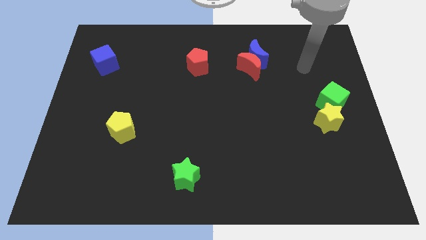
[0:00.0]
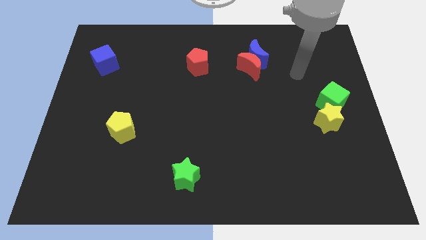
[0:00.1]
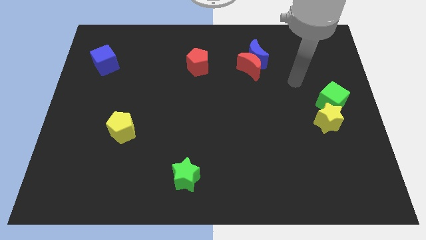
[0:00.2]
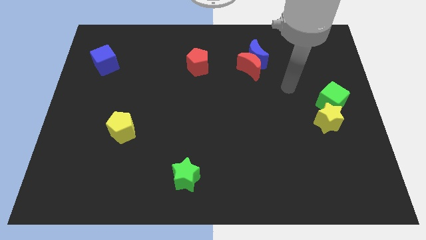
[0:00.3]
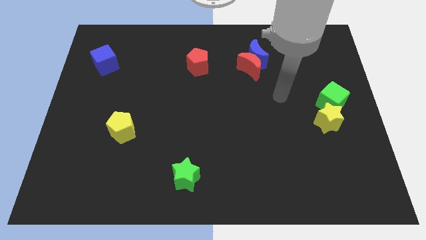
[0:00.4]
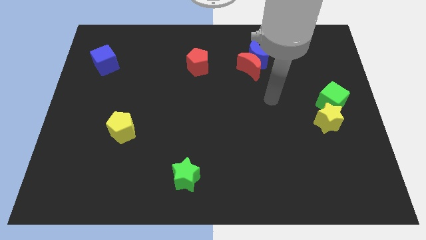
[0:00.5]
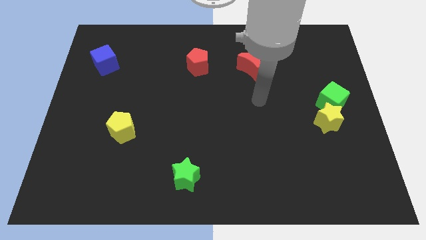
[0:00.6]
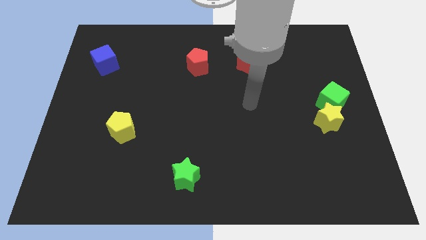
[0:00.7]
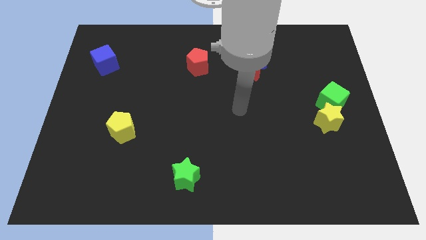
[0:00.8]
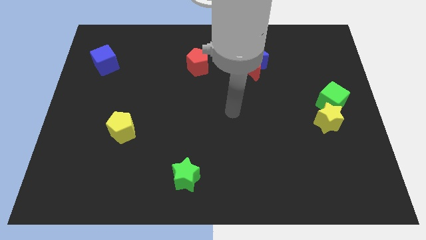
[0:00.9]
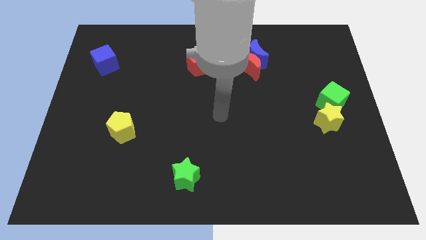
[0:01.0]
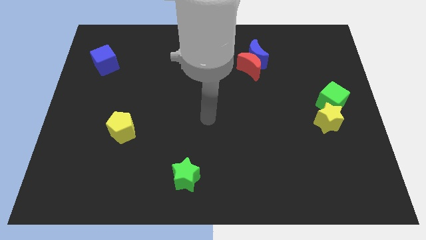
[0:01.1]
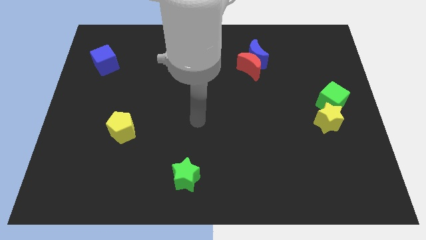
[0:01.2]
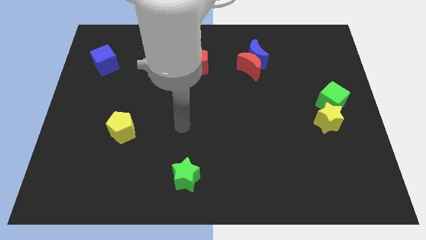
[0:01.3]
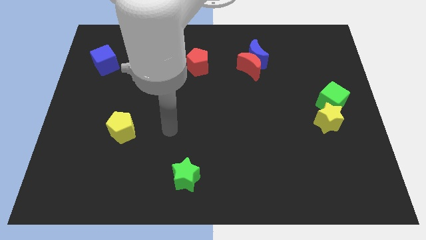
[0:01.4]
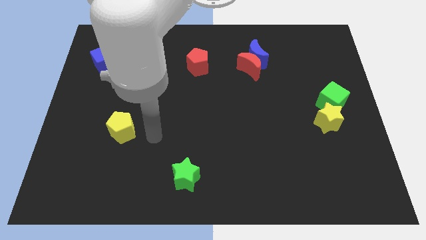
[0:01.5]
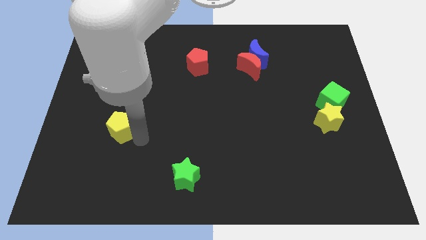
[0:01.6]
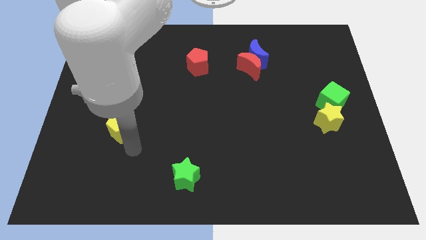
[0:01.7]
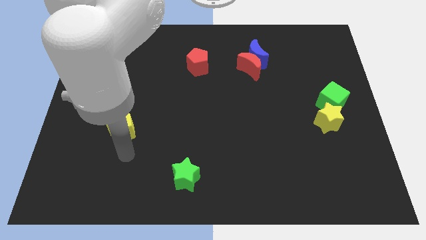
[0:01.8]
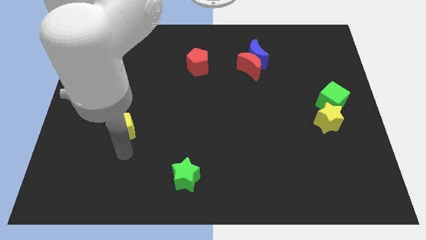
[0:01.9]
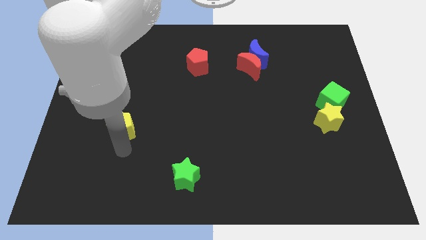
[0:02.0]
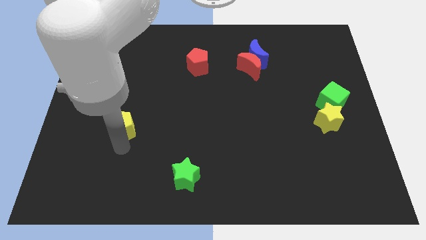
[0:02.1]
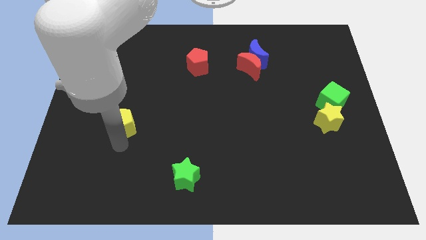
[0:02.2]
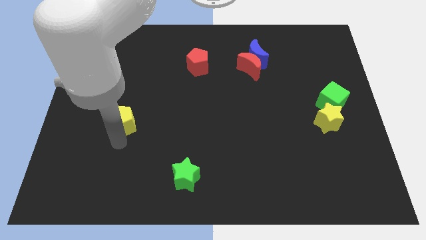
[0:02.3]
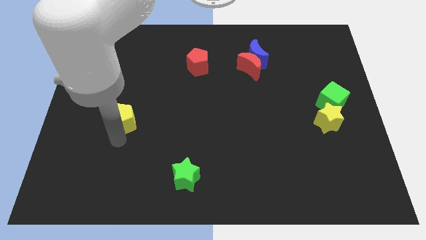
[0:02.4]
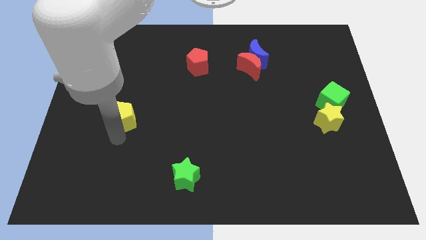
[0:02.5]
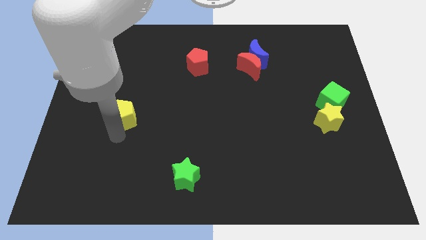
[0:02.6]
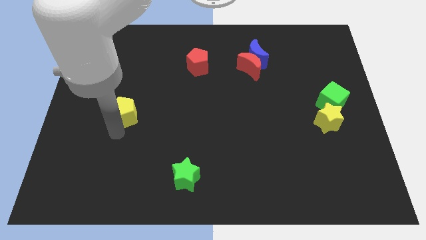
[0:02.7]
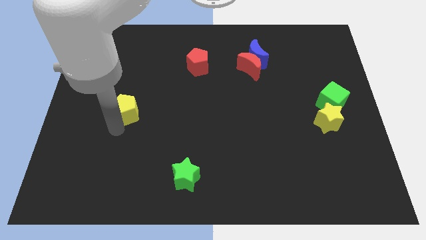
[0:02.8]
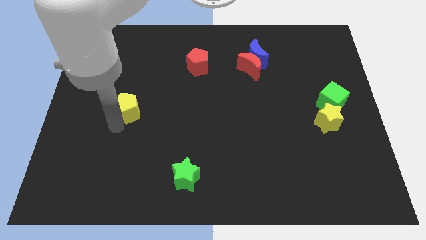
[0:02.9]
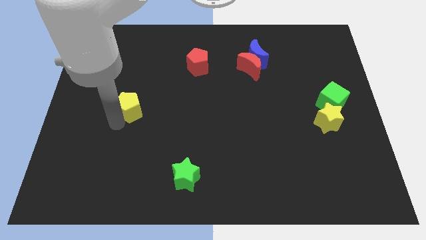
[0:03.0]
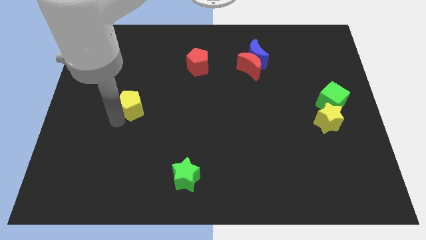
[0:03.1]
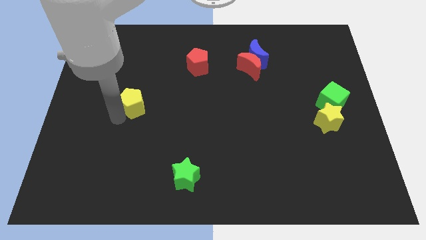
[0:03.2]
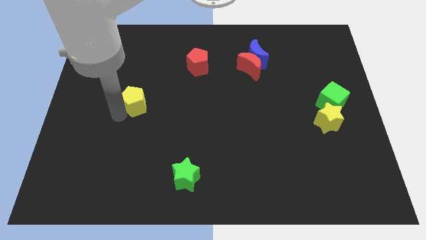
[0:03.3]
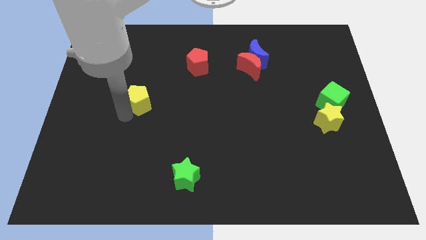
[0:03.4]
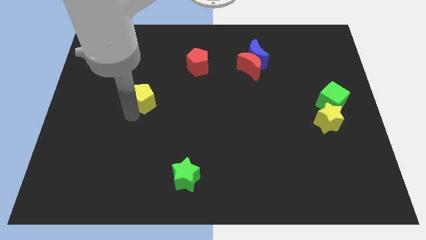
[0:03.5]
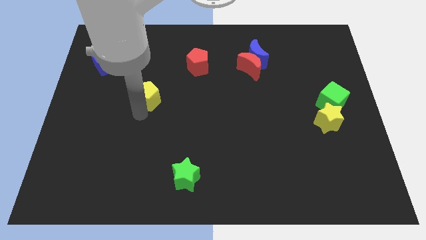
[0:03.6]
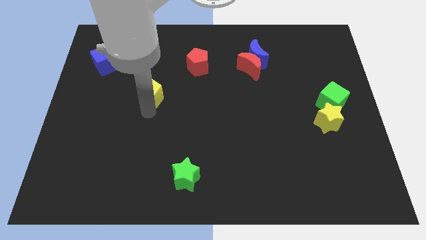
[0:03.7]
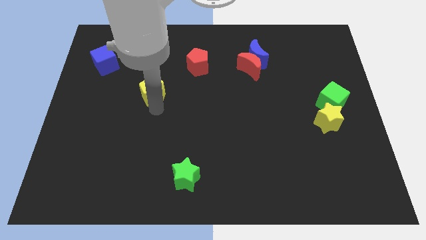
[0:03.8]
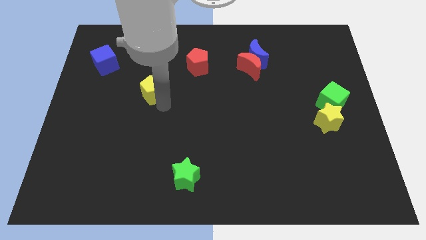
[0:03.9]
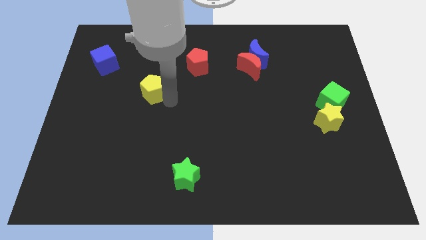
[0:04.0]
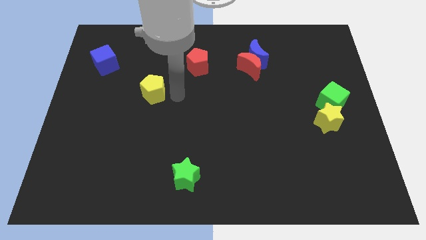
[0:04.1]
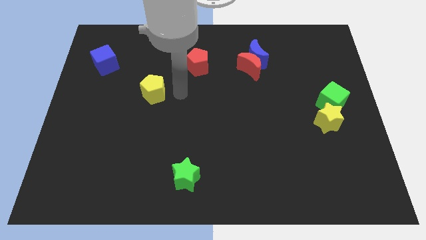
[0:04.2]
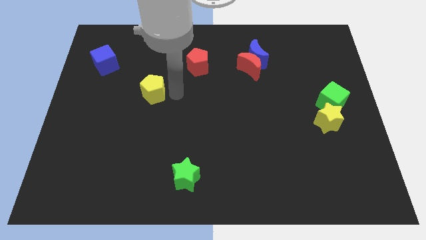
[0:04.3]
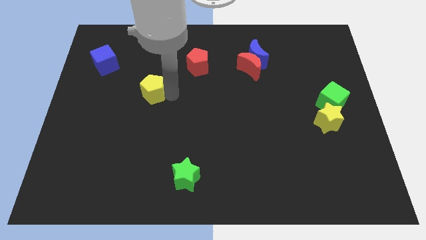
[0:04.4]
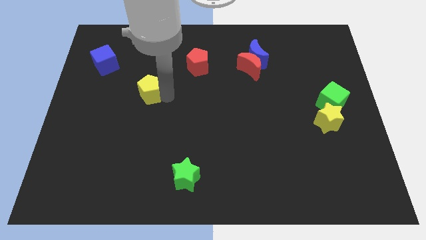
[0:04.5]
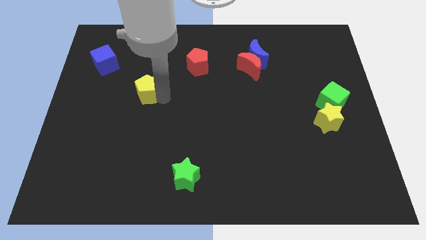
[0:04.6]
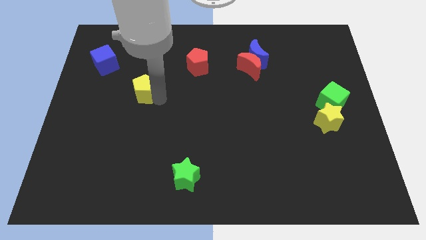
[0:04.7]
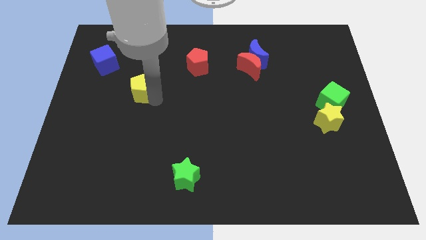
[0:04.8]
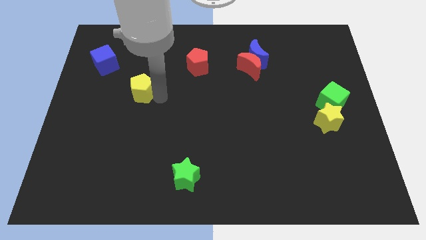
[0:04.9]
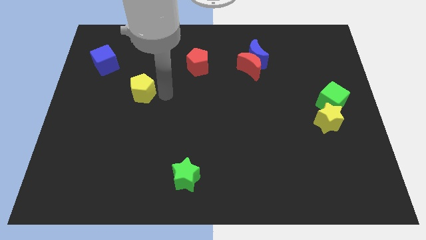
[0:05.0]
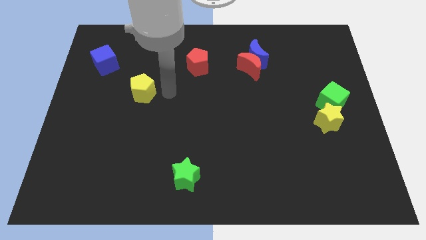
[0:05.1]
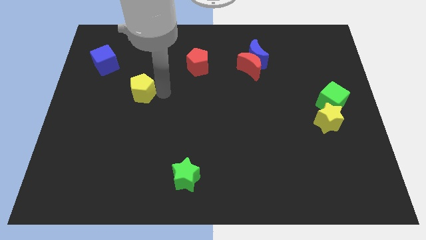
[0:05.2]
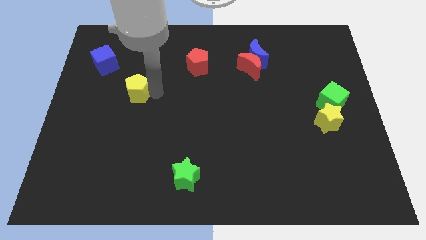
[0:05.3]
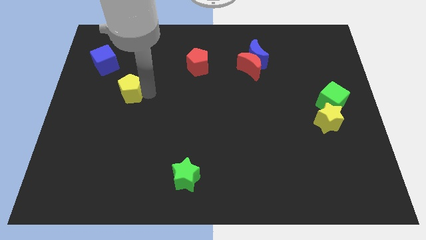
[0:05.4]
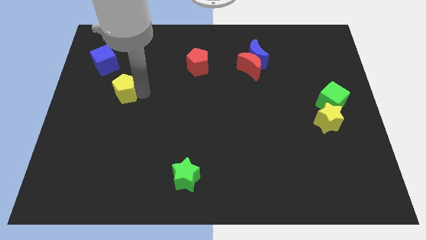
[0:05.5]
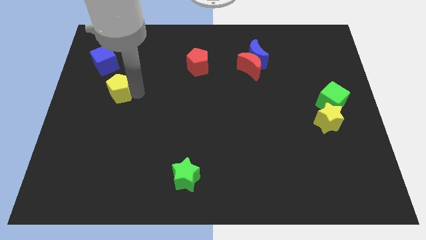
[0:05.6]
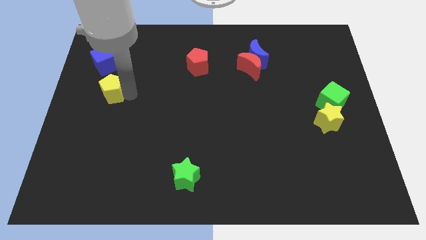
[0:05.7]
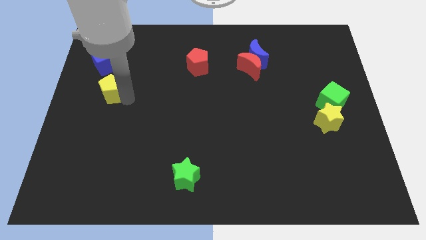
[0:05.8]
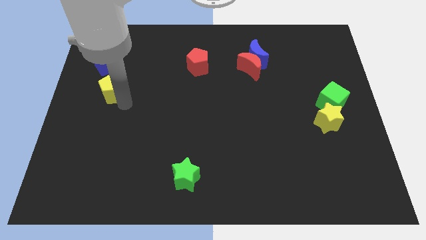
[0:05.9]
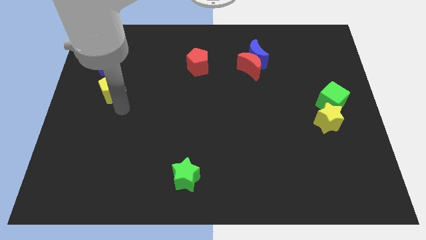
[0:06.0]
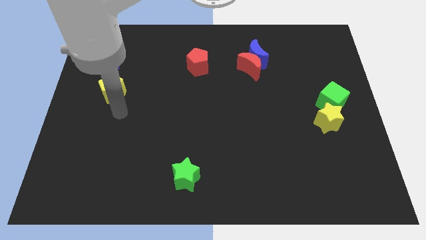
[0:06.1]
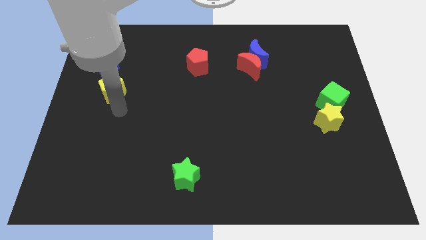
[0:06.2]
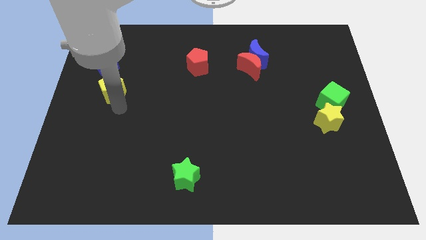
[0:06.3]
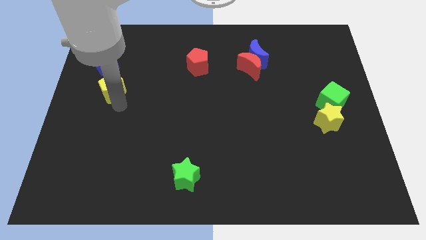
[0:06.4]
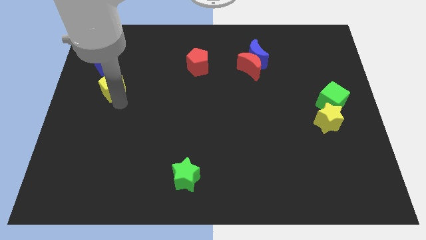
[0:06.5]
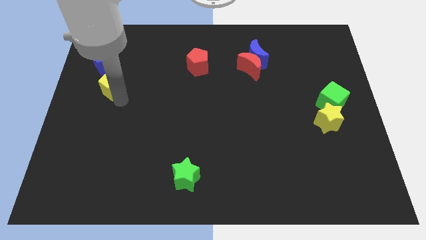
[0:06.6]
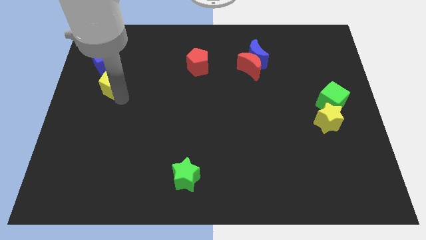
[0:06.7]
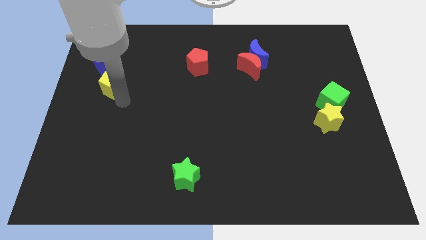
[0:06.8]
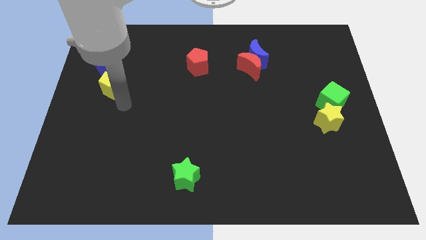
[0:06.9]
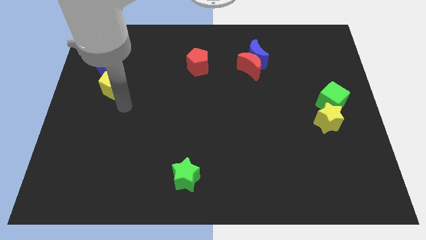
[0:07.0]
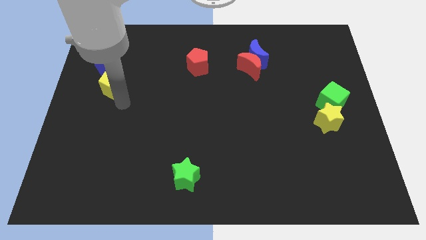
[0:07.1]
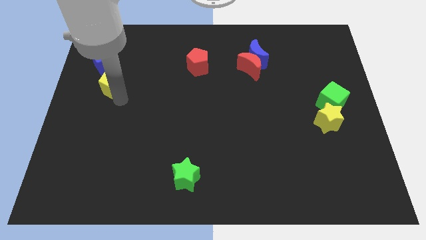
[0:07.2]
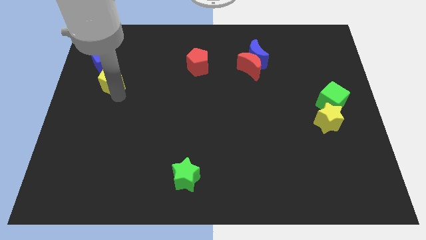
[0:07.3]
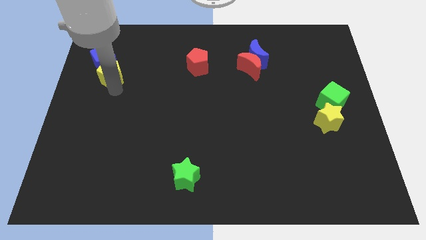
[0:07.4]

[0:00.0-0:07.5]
push the yellow pentagon to the blue cube
